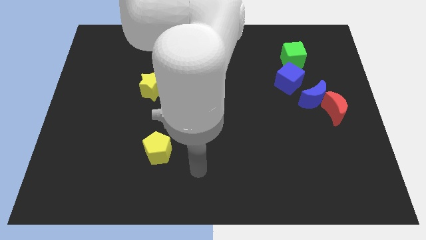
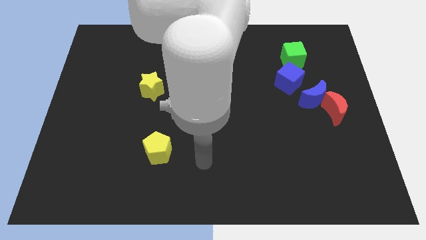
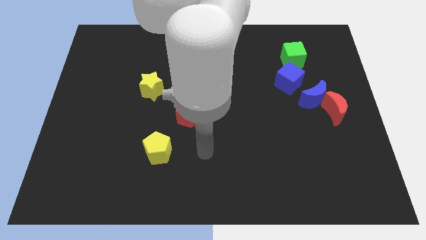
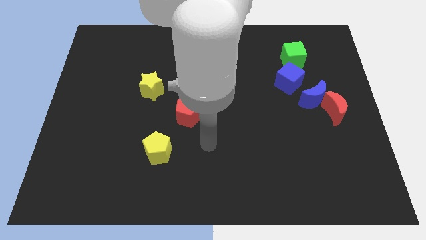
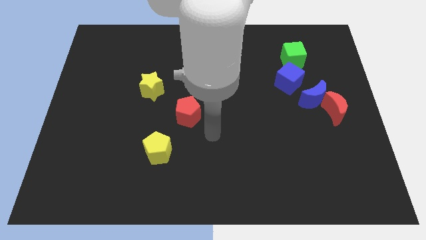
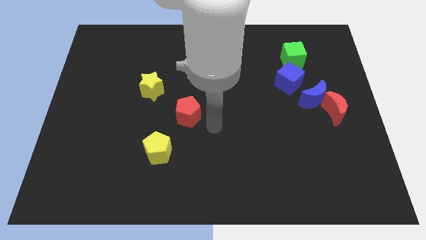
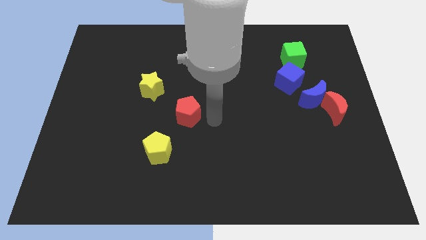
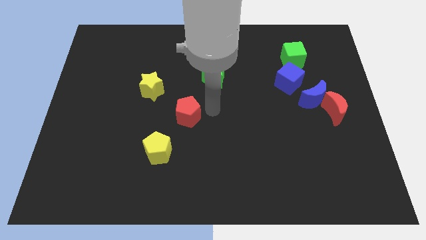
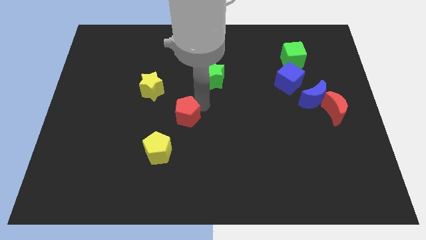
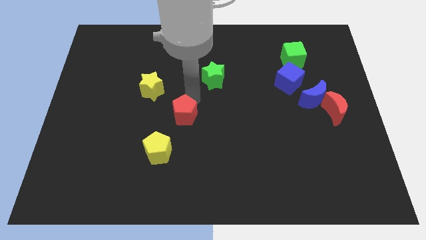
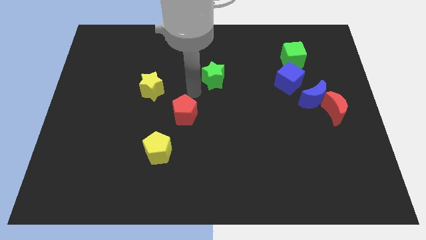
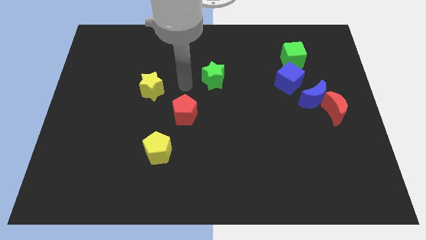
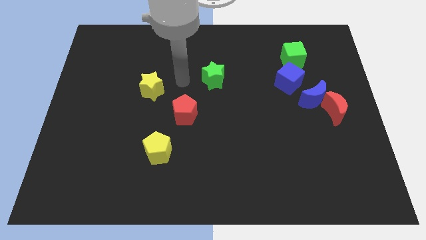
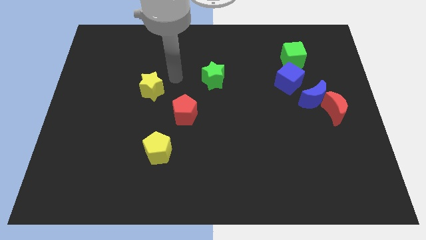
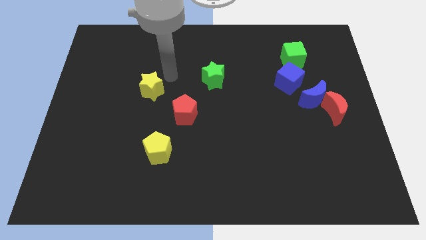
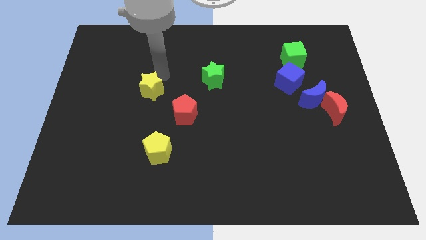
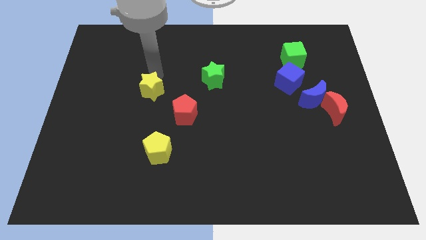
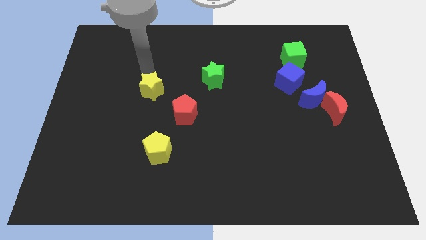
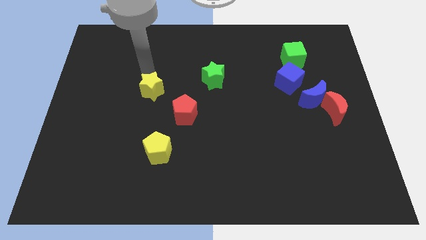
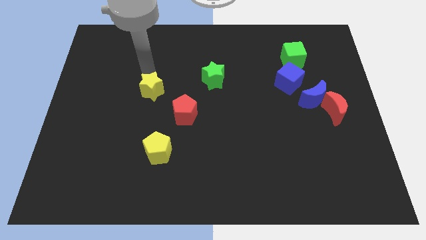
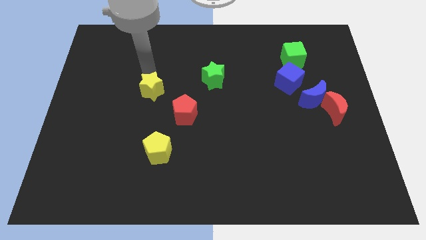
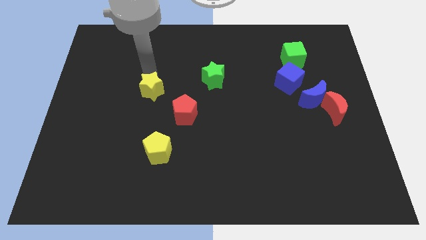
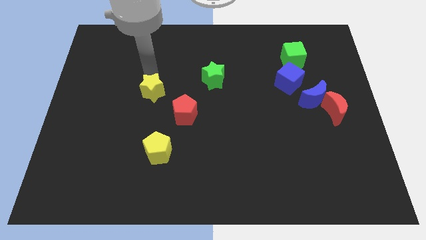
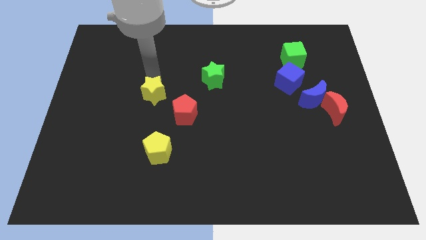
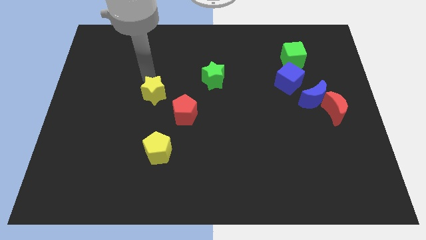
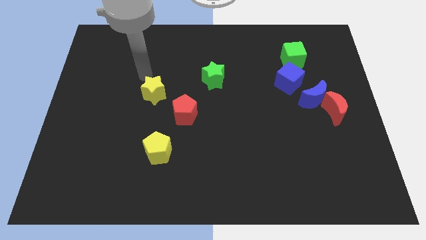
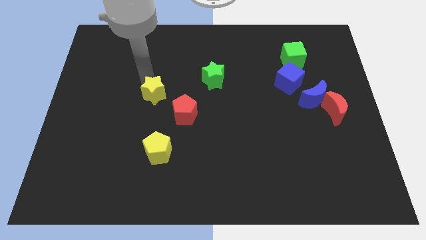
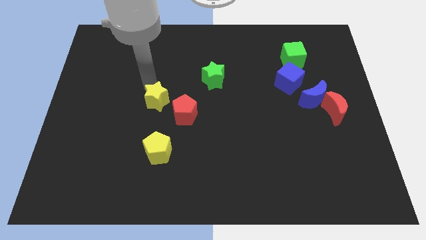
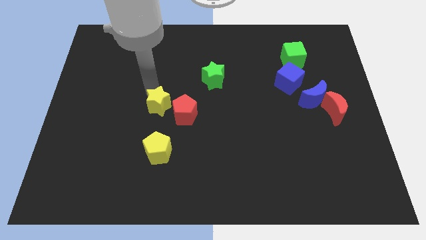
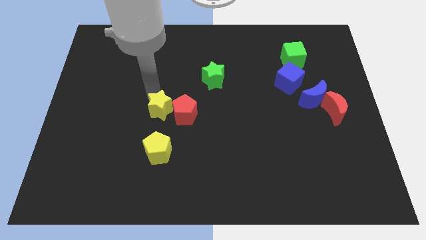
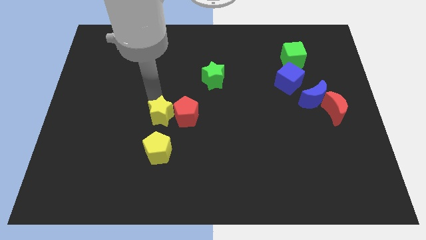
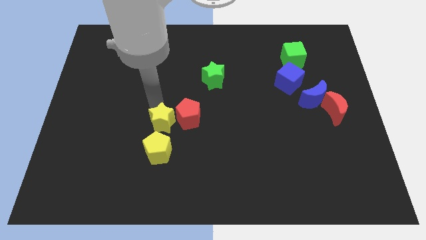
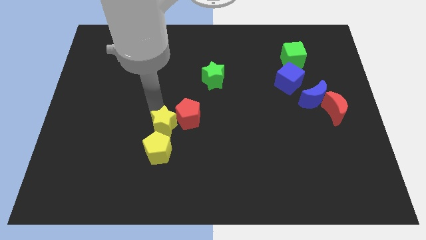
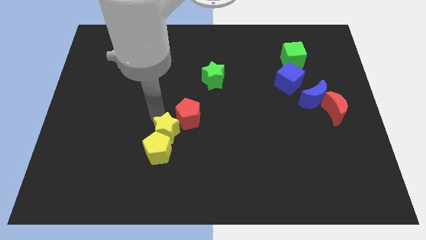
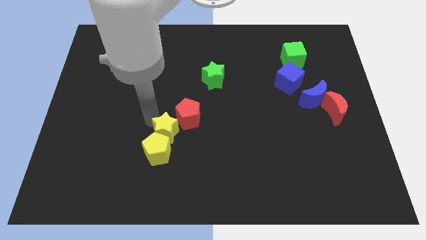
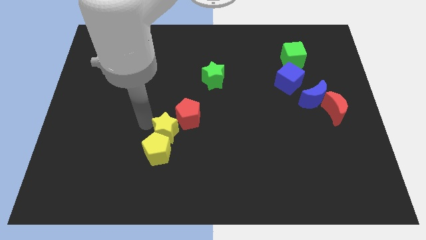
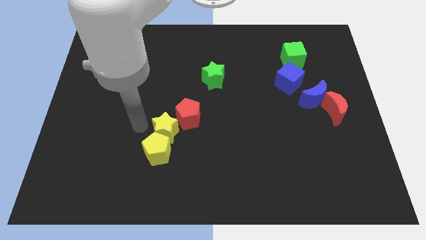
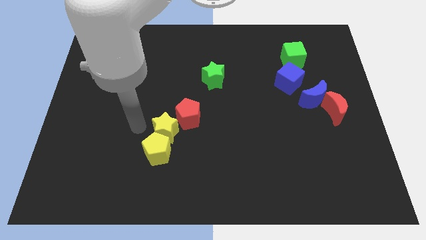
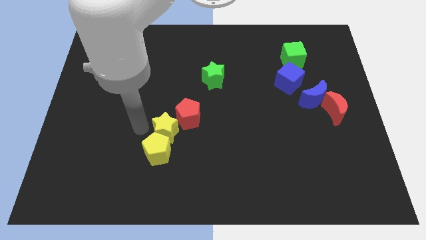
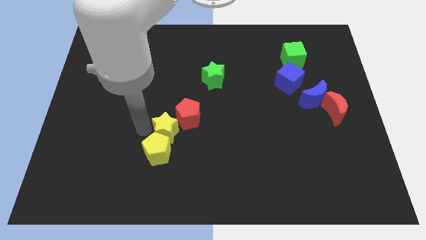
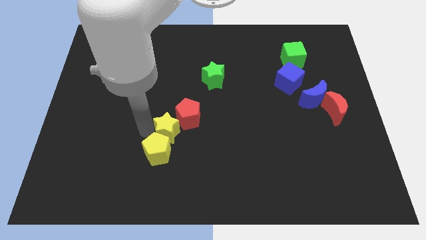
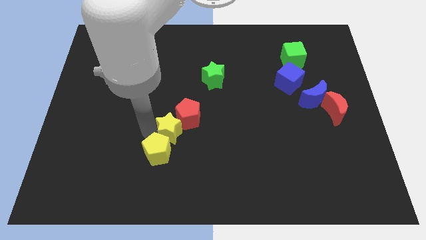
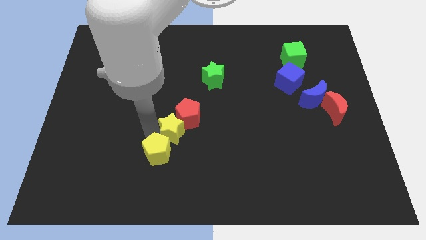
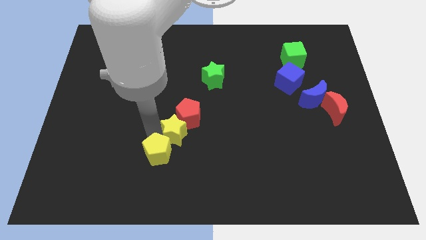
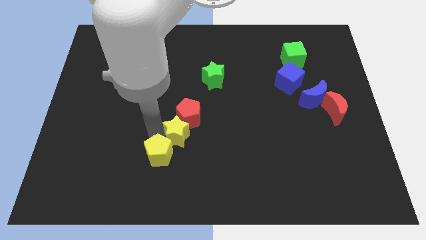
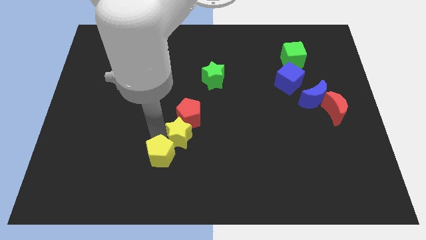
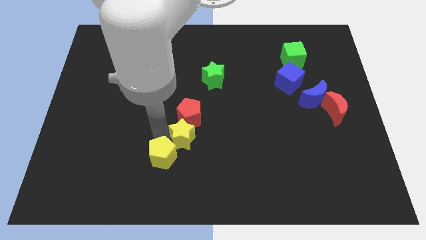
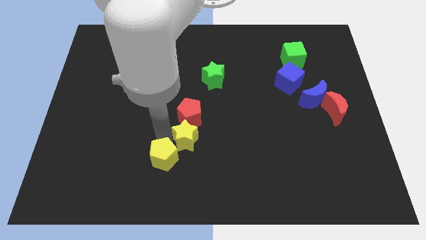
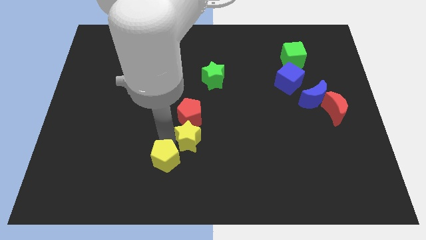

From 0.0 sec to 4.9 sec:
put the yellow star diagonally down and to the right of the red pentagon

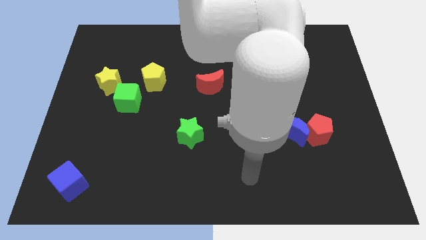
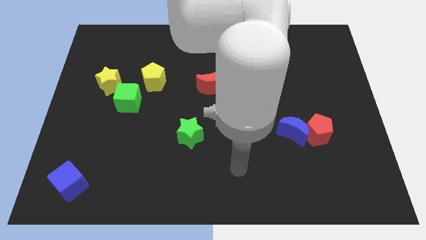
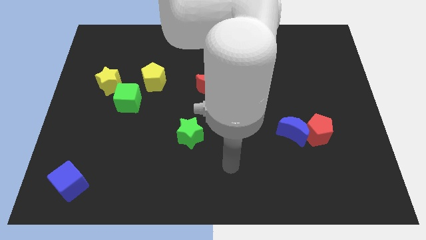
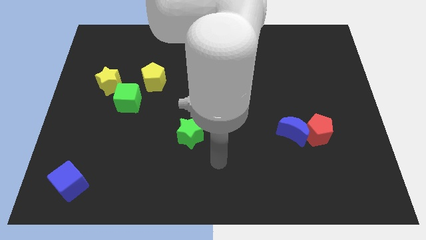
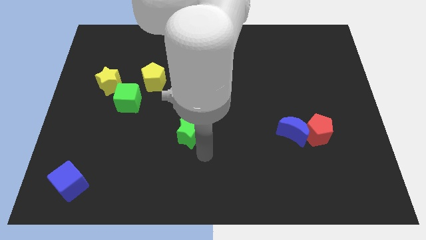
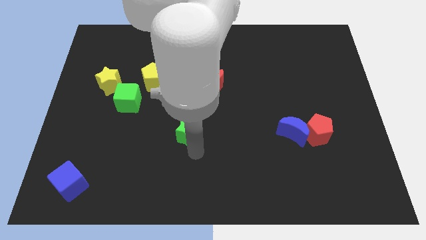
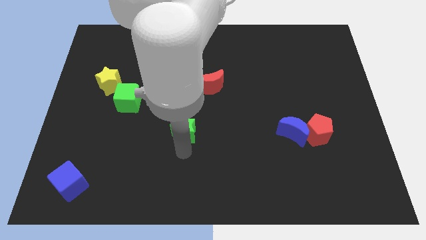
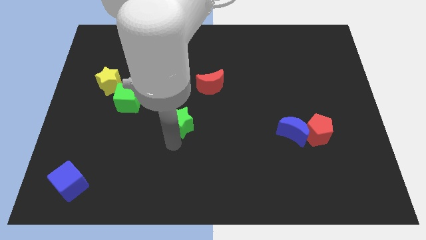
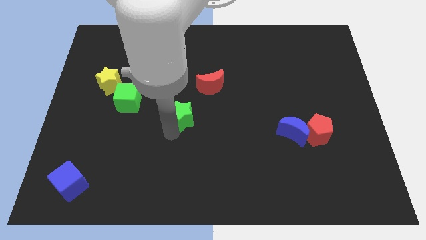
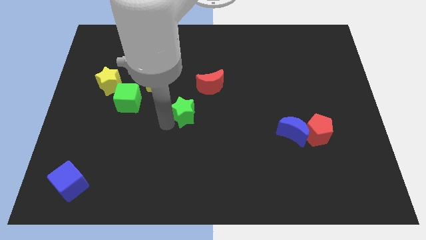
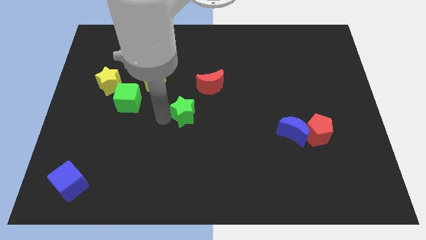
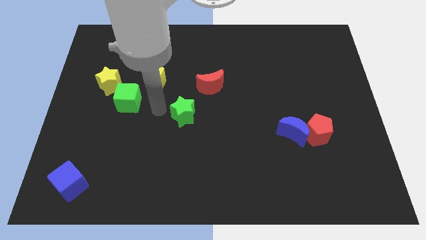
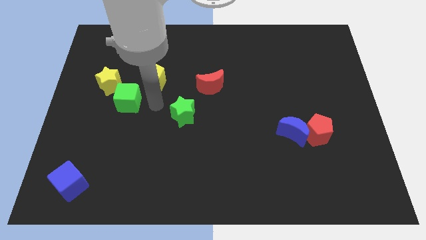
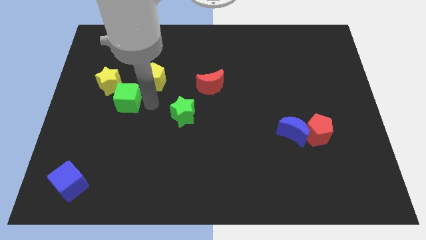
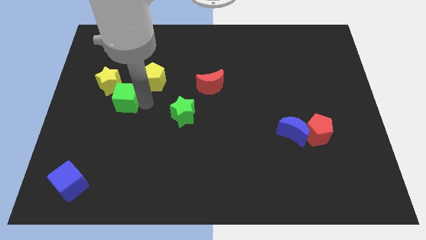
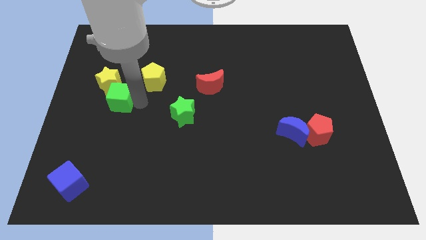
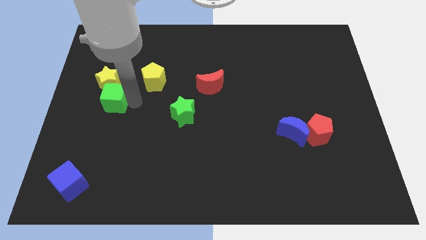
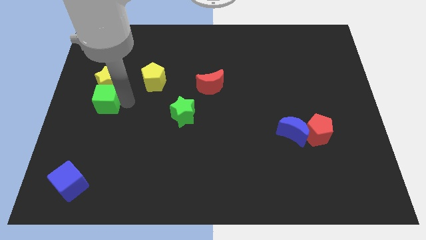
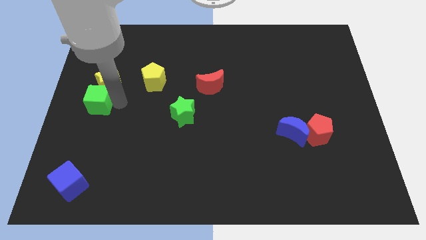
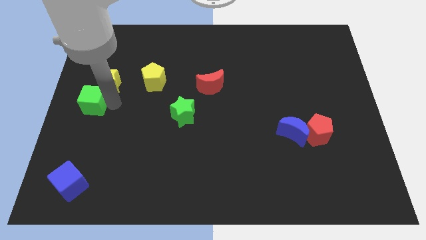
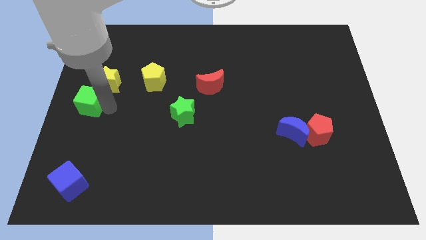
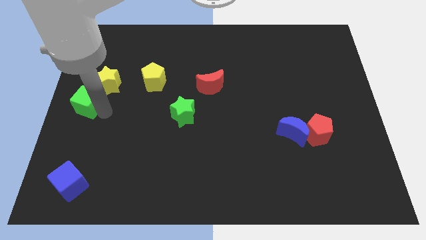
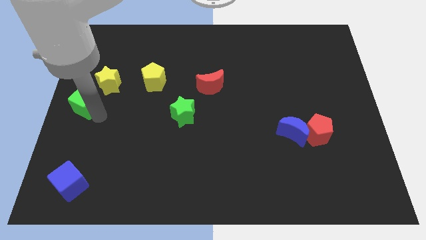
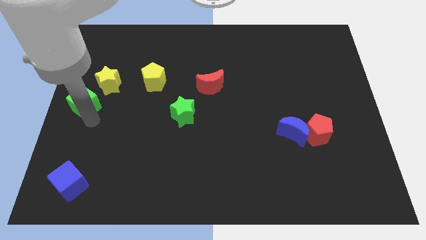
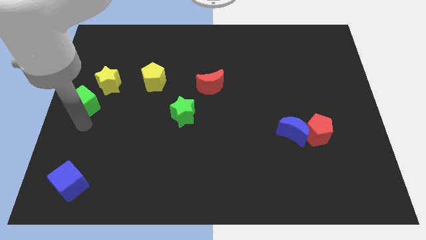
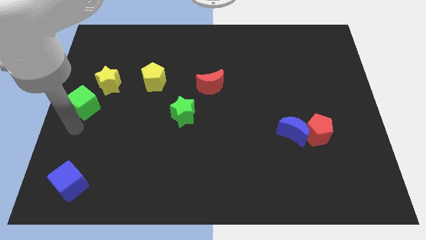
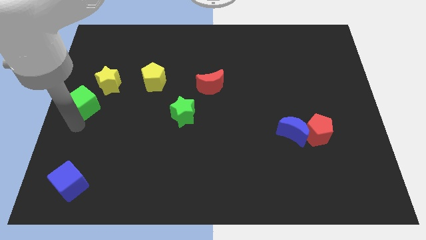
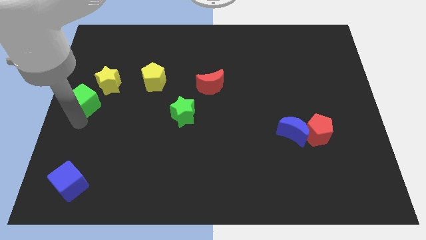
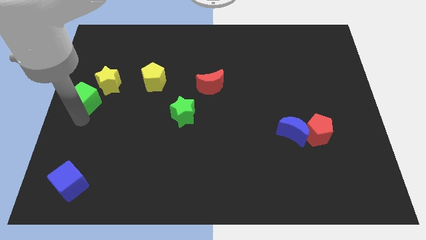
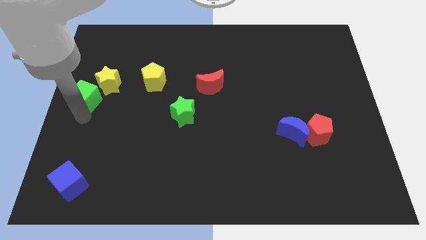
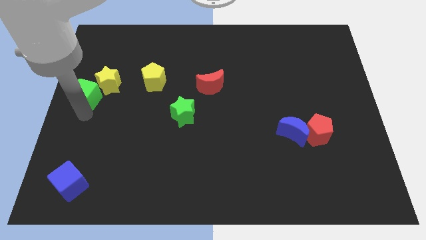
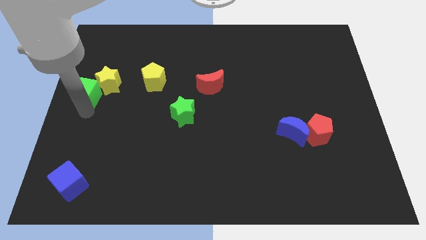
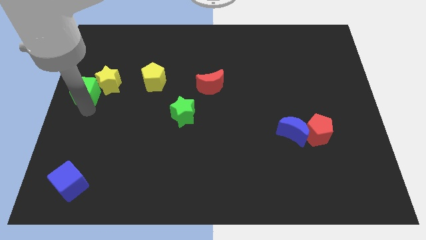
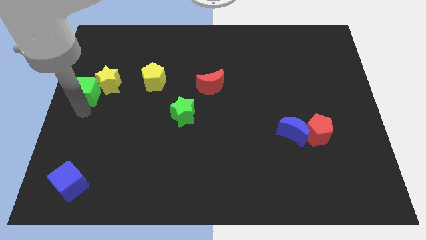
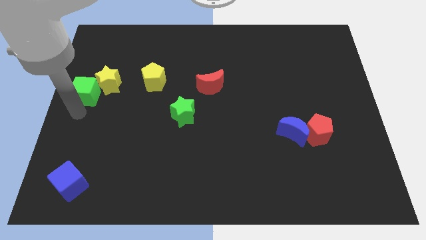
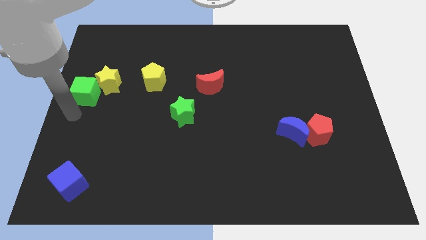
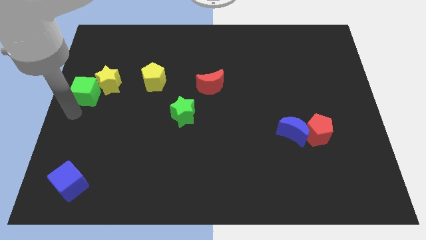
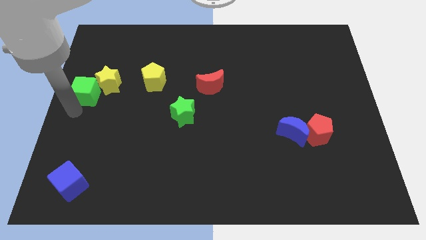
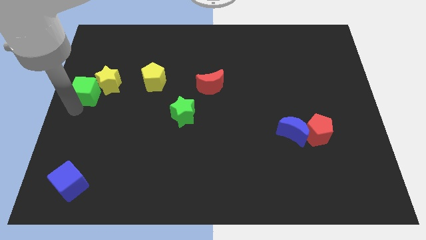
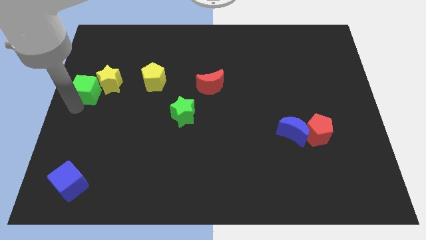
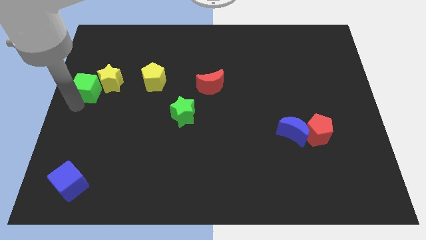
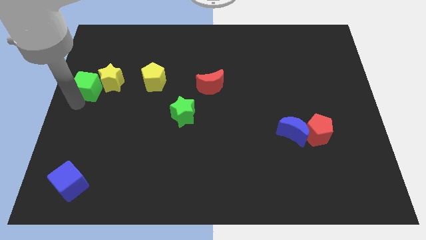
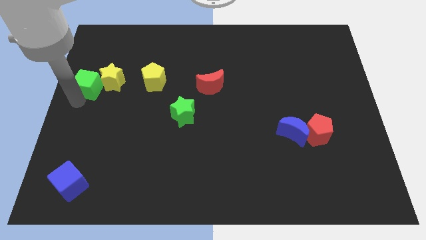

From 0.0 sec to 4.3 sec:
push the green cube to the left side of the yellow pentagon
